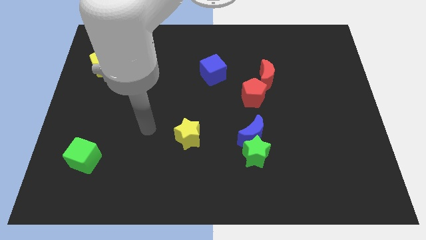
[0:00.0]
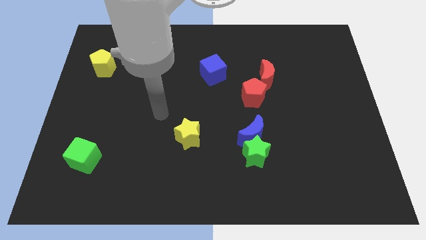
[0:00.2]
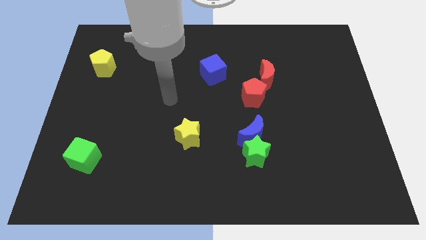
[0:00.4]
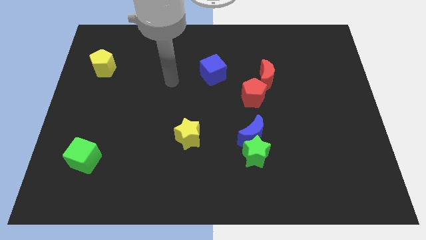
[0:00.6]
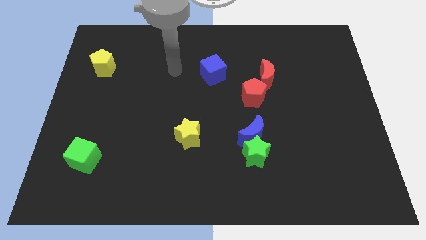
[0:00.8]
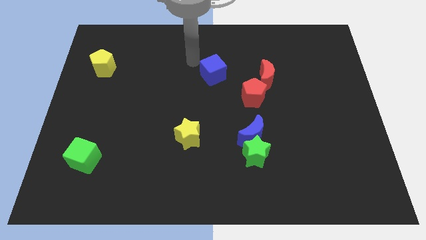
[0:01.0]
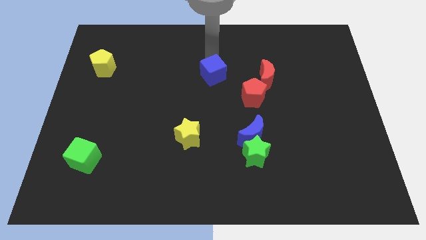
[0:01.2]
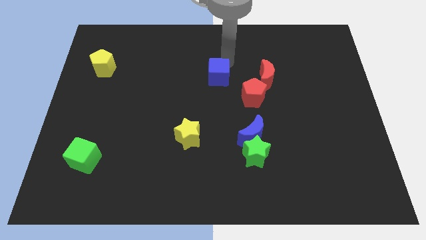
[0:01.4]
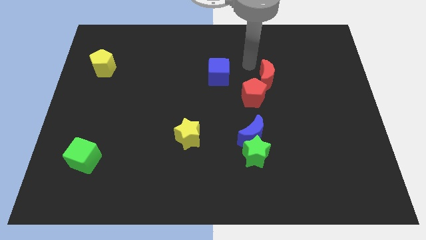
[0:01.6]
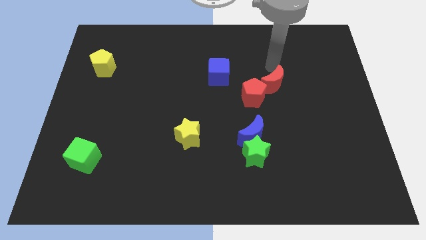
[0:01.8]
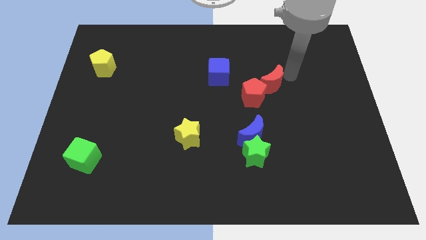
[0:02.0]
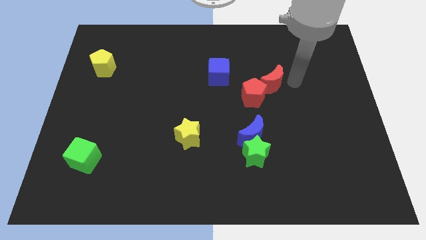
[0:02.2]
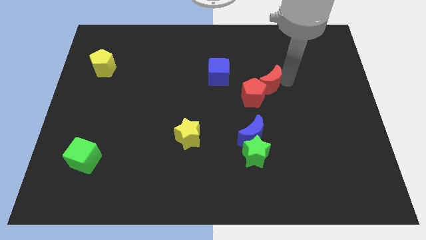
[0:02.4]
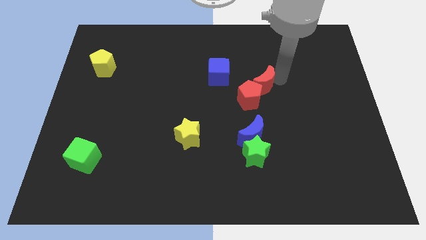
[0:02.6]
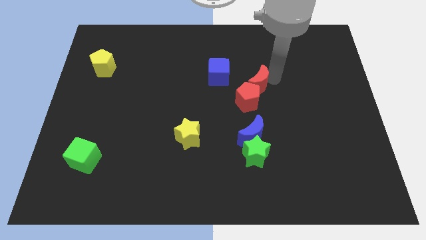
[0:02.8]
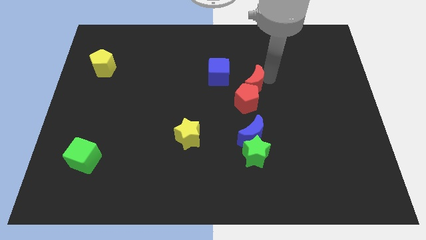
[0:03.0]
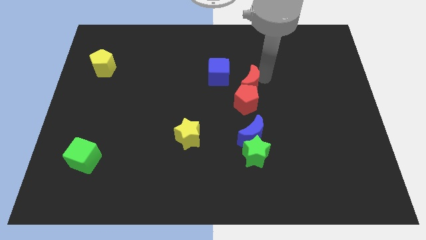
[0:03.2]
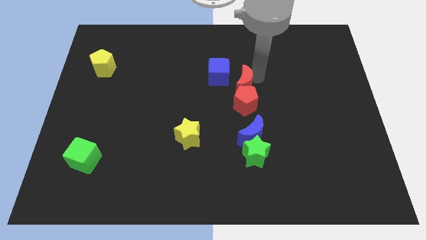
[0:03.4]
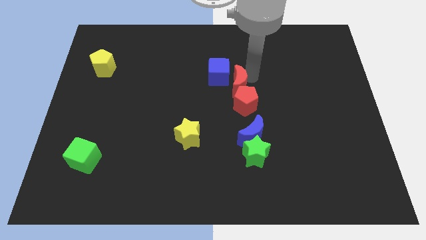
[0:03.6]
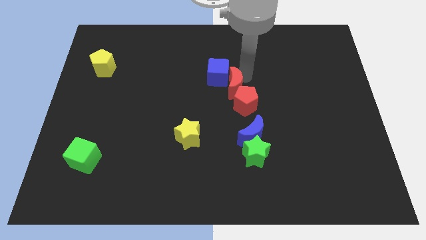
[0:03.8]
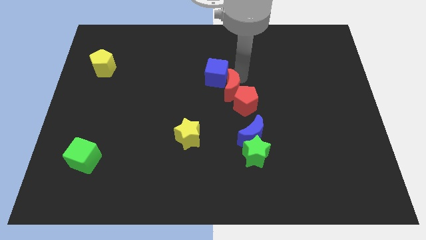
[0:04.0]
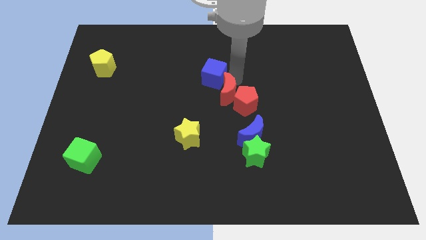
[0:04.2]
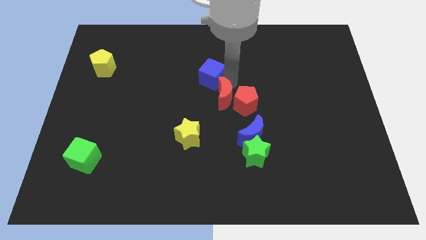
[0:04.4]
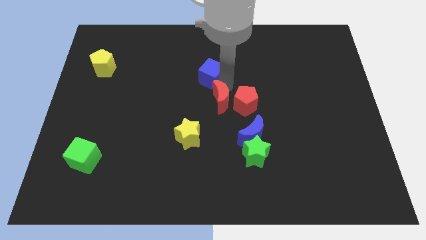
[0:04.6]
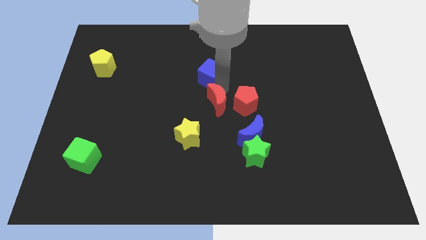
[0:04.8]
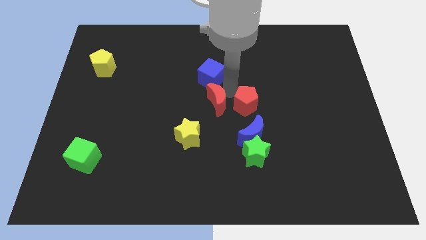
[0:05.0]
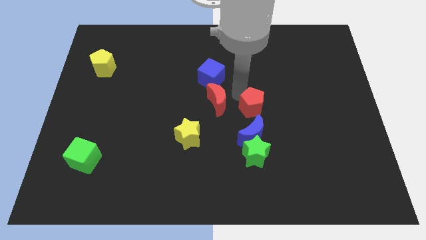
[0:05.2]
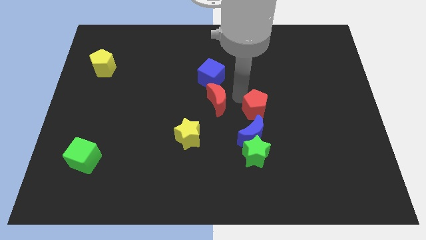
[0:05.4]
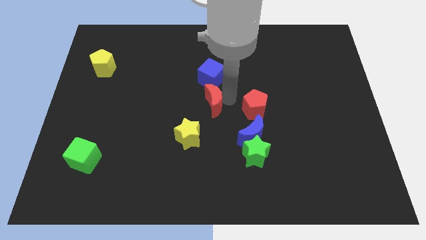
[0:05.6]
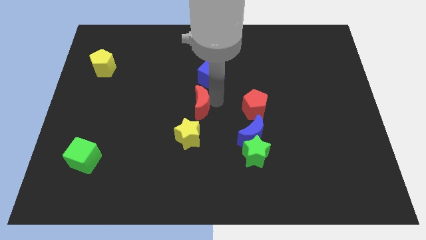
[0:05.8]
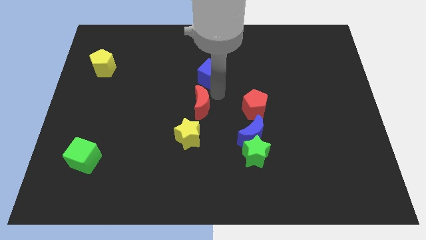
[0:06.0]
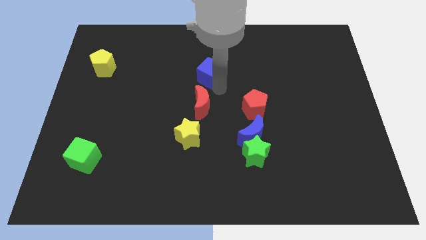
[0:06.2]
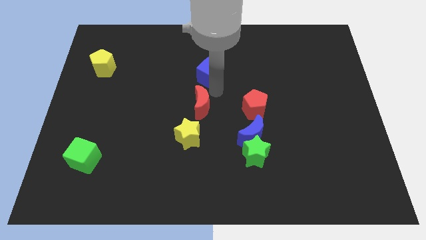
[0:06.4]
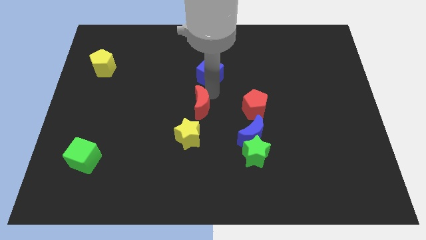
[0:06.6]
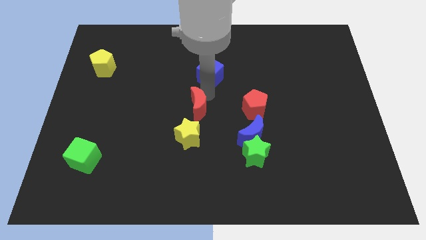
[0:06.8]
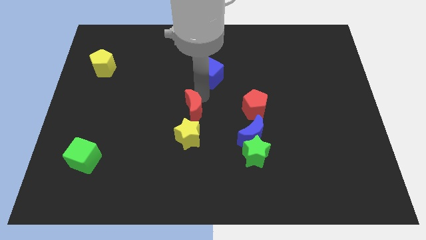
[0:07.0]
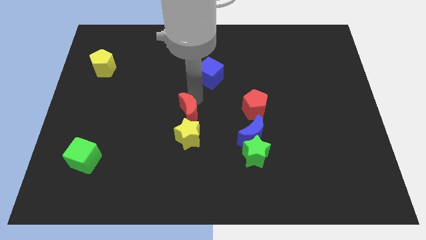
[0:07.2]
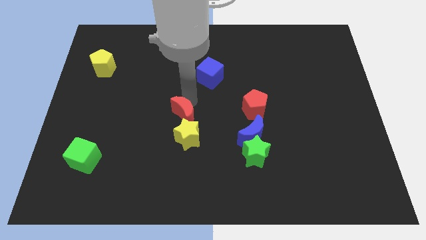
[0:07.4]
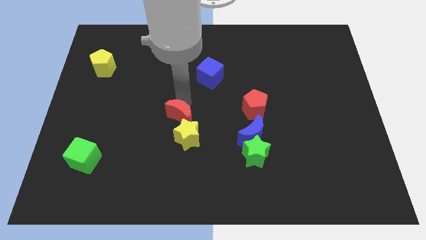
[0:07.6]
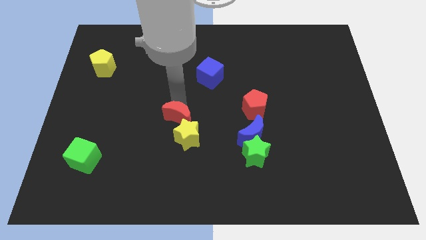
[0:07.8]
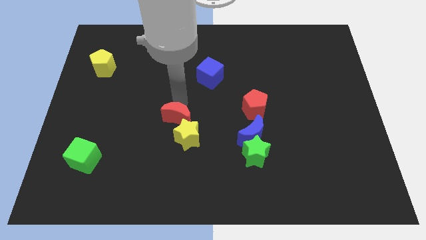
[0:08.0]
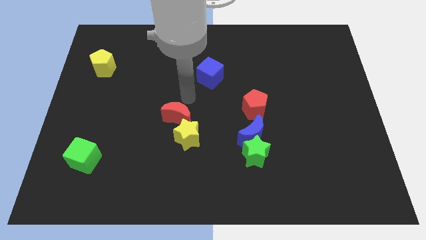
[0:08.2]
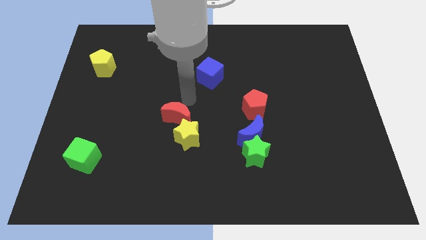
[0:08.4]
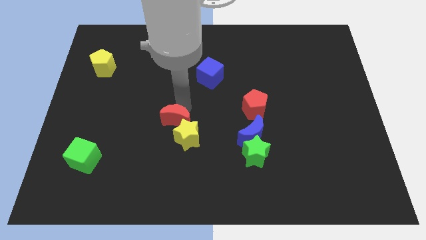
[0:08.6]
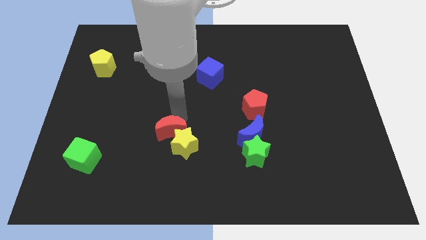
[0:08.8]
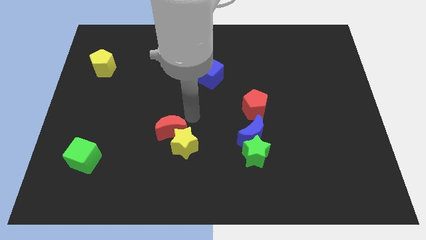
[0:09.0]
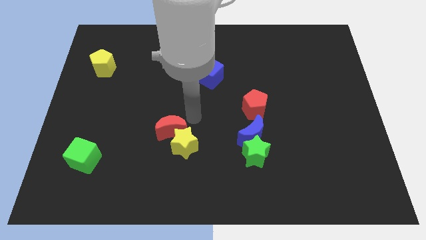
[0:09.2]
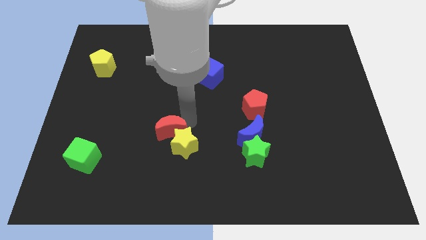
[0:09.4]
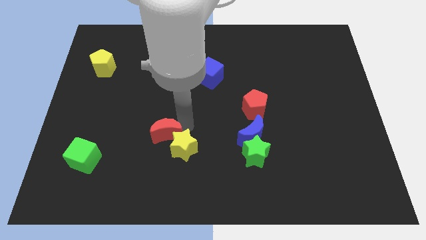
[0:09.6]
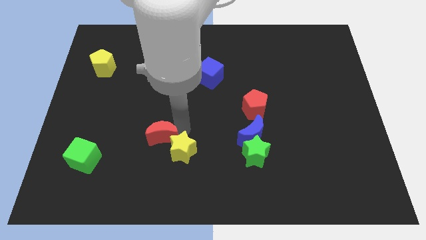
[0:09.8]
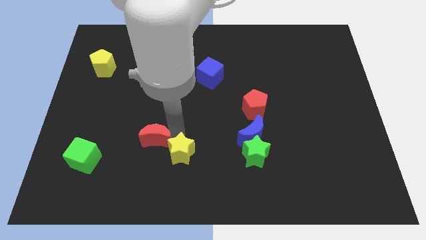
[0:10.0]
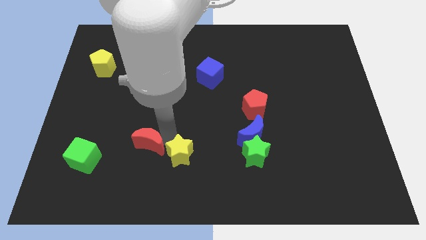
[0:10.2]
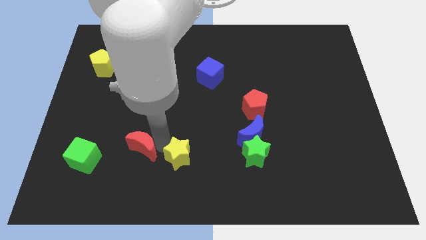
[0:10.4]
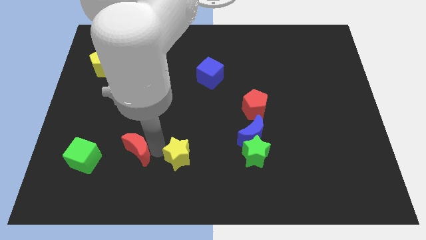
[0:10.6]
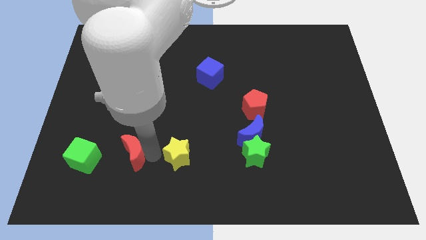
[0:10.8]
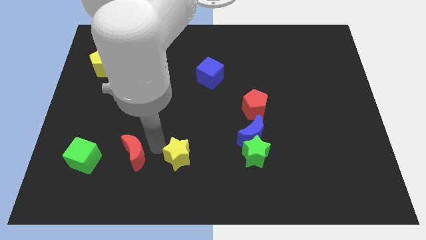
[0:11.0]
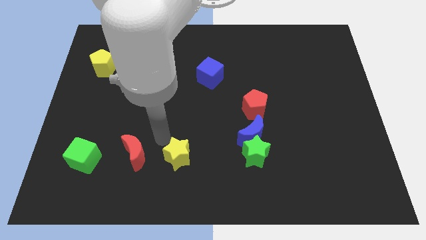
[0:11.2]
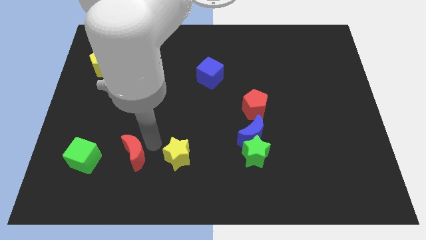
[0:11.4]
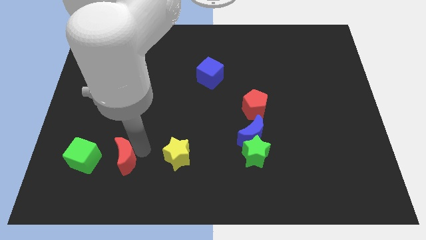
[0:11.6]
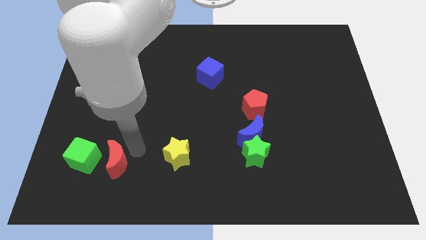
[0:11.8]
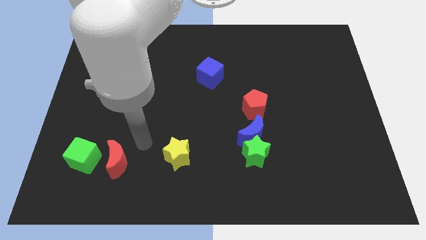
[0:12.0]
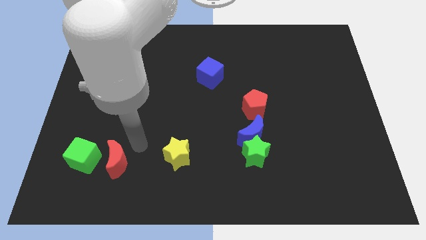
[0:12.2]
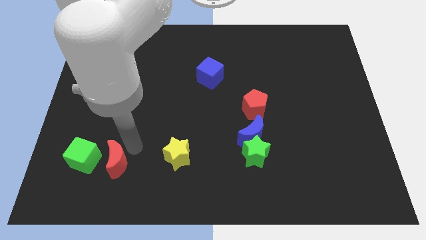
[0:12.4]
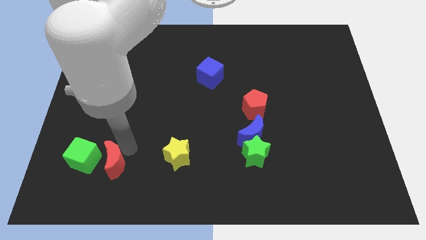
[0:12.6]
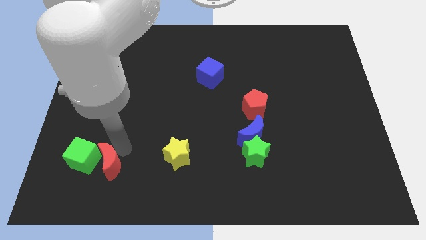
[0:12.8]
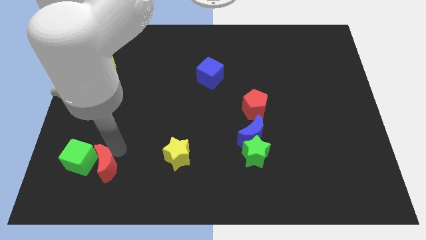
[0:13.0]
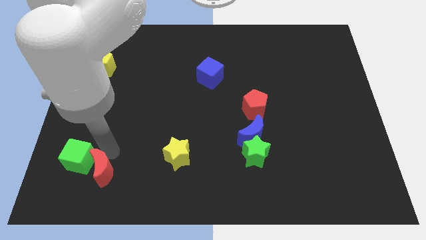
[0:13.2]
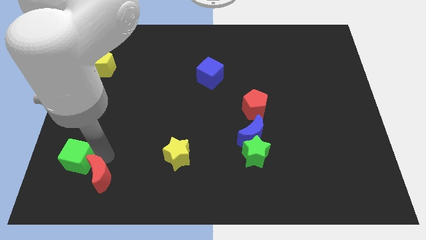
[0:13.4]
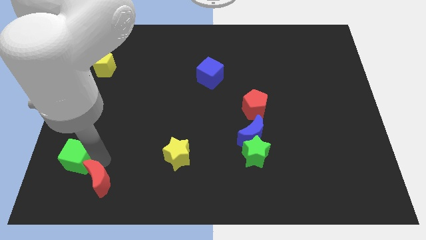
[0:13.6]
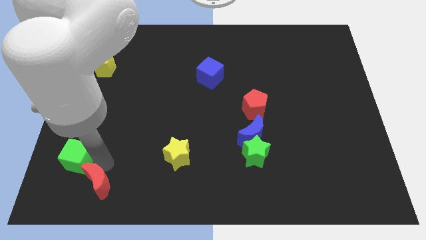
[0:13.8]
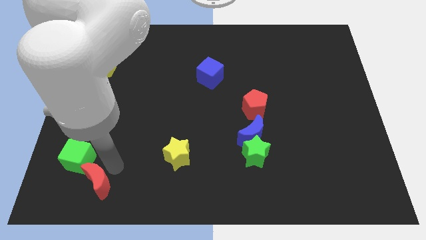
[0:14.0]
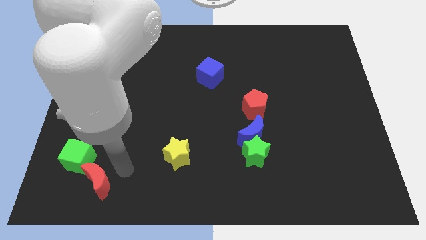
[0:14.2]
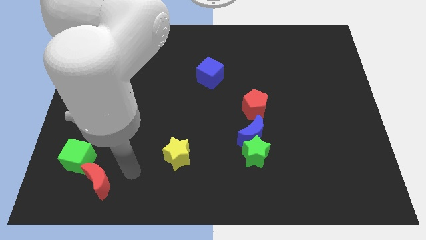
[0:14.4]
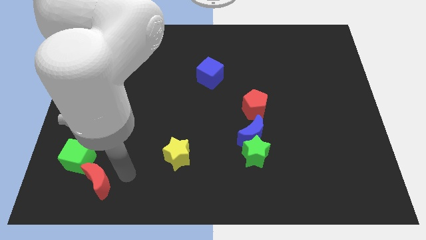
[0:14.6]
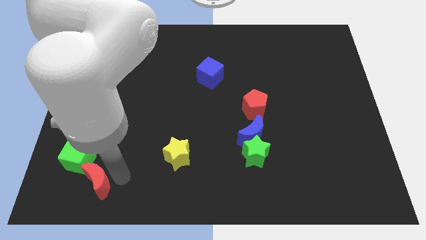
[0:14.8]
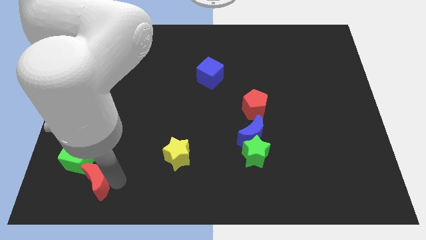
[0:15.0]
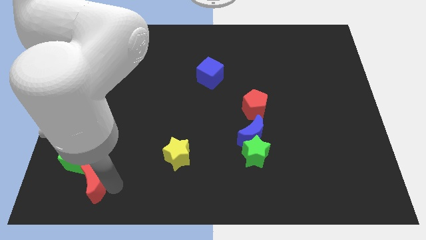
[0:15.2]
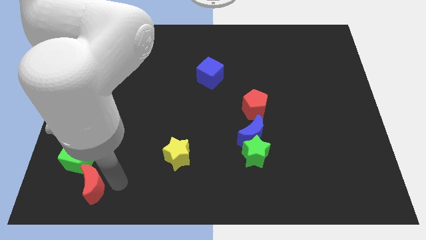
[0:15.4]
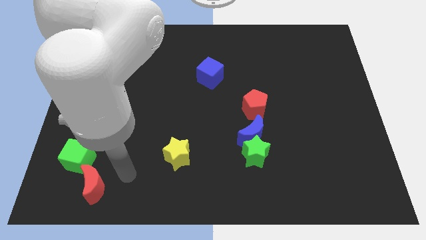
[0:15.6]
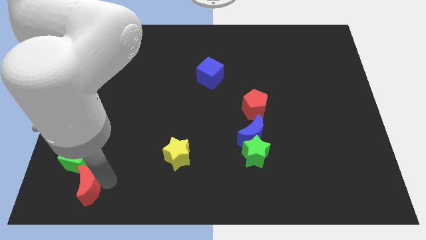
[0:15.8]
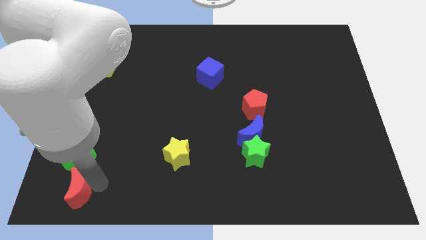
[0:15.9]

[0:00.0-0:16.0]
push the red moon to the bottom left
